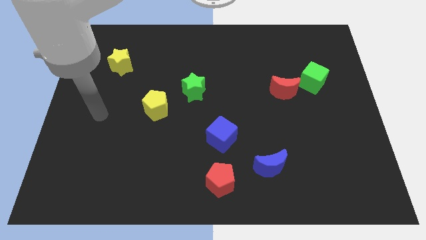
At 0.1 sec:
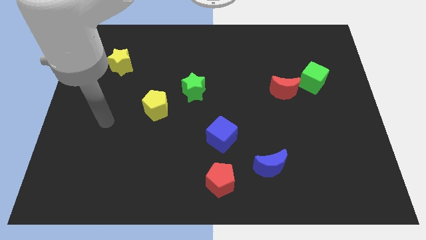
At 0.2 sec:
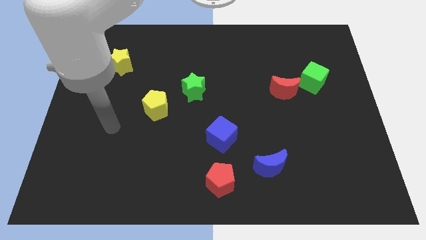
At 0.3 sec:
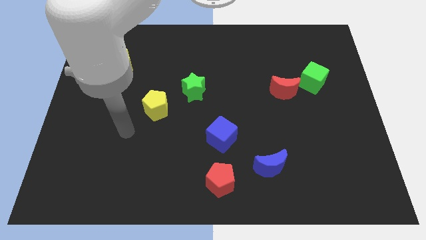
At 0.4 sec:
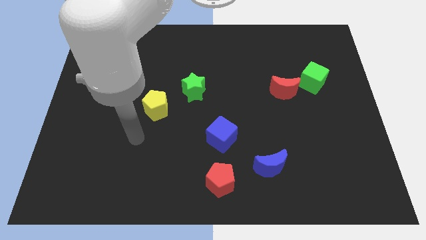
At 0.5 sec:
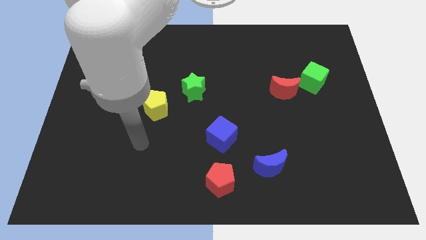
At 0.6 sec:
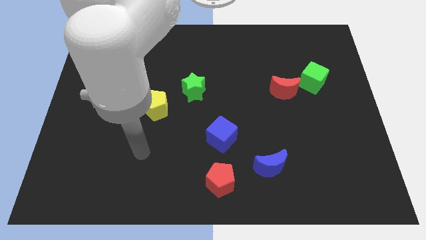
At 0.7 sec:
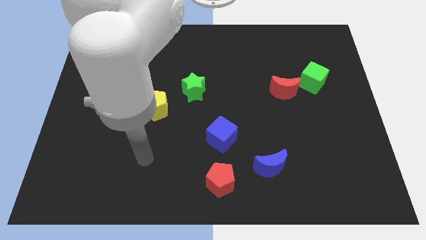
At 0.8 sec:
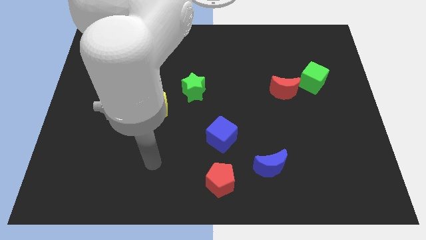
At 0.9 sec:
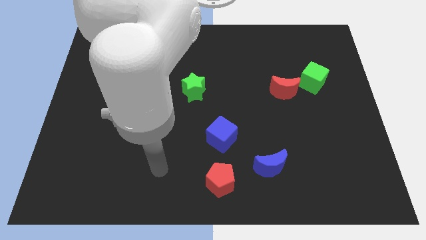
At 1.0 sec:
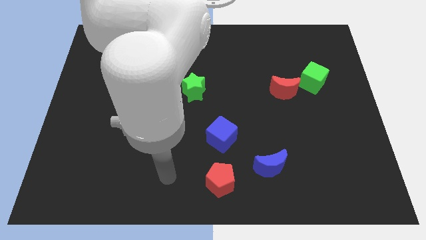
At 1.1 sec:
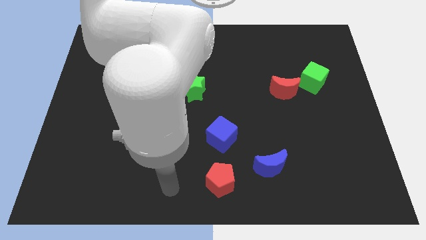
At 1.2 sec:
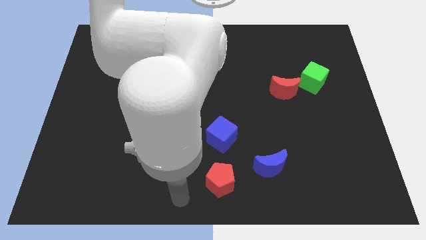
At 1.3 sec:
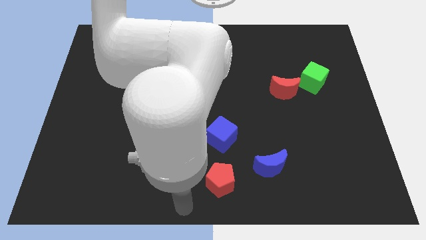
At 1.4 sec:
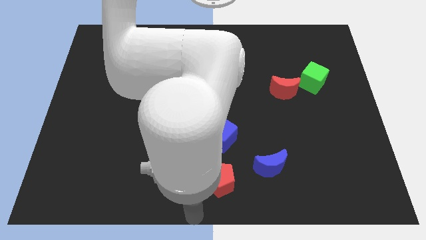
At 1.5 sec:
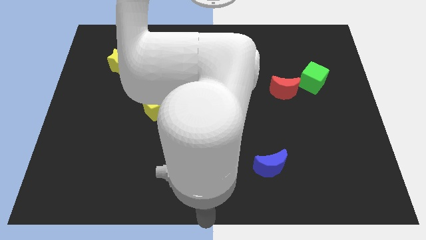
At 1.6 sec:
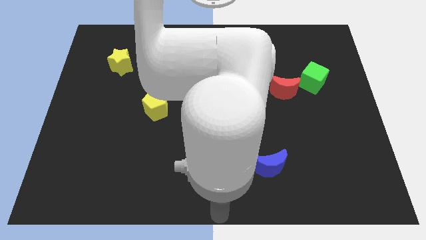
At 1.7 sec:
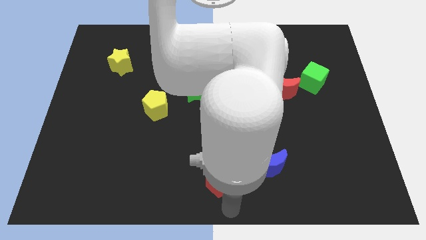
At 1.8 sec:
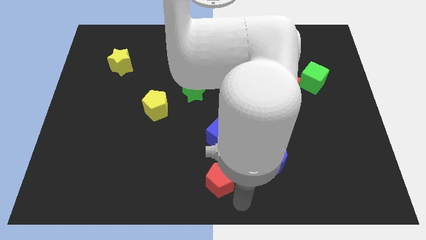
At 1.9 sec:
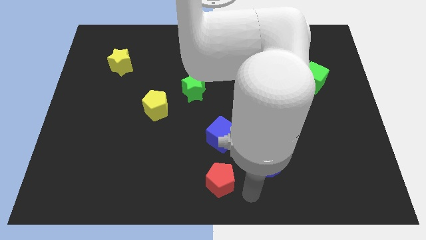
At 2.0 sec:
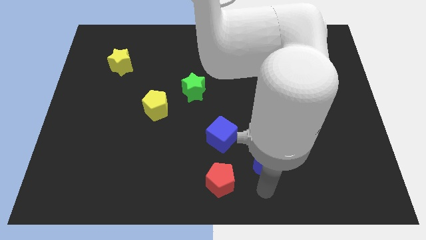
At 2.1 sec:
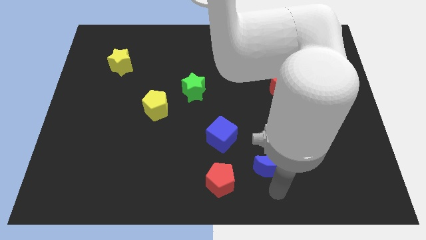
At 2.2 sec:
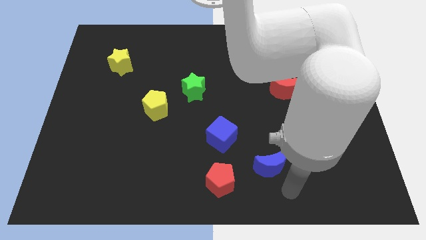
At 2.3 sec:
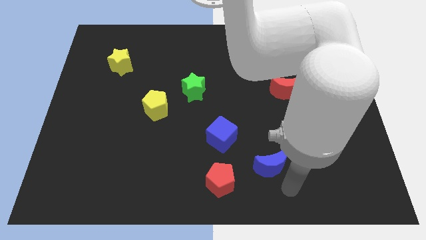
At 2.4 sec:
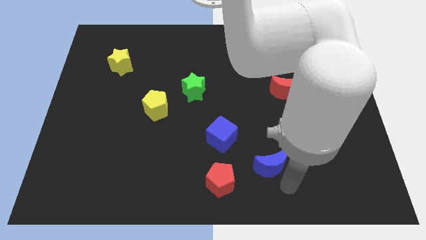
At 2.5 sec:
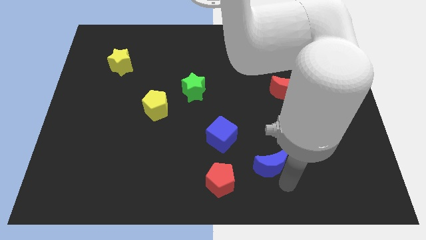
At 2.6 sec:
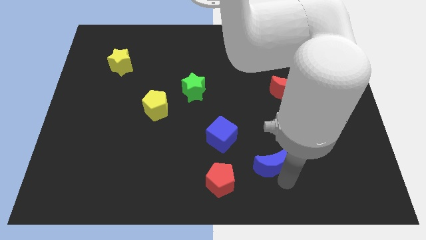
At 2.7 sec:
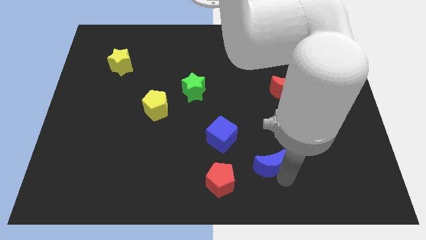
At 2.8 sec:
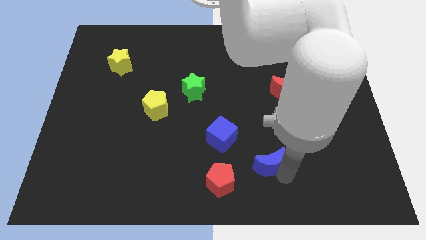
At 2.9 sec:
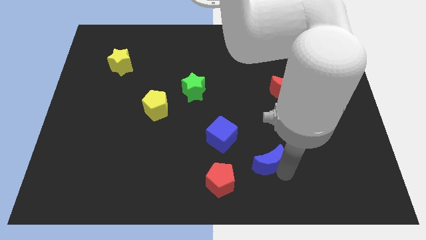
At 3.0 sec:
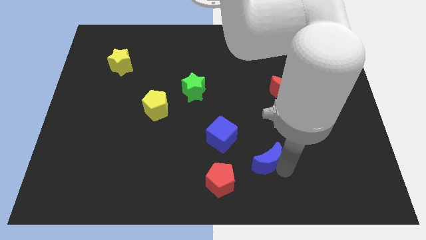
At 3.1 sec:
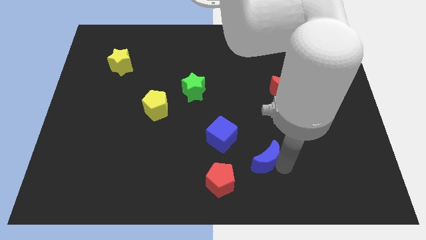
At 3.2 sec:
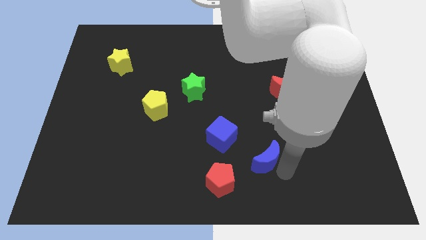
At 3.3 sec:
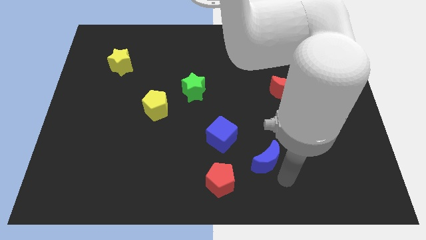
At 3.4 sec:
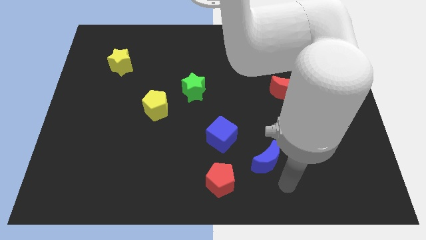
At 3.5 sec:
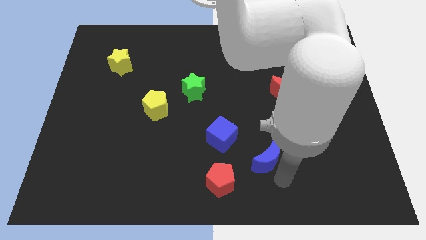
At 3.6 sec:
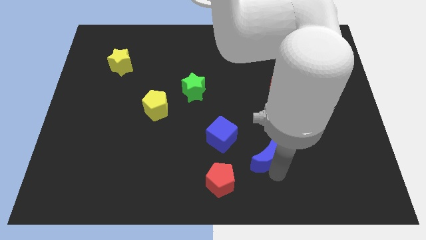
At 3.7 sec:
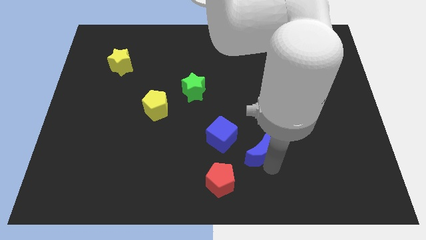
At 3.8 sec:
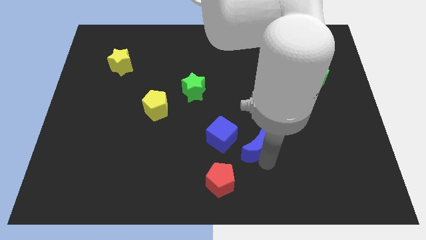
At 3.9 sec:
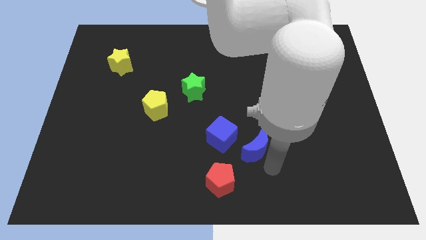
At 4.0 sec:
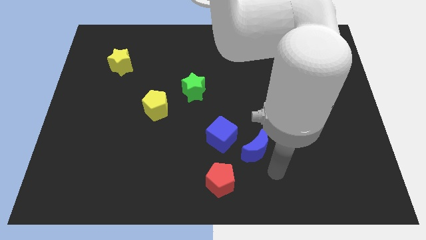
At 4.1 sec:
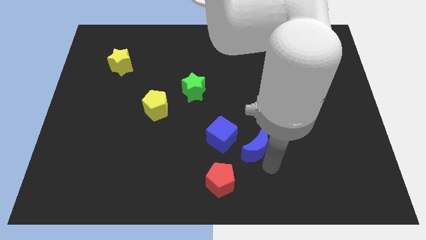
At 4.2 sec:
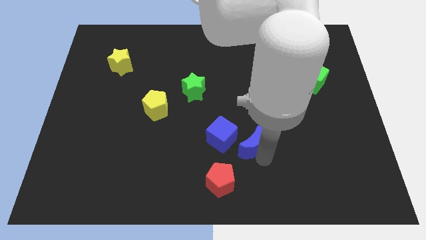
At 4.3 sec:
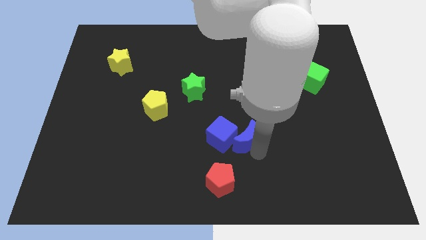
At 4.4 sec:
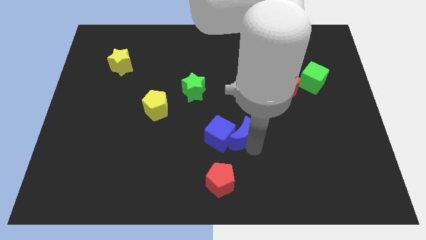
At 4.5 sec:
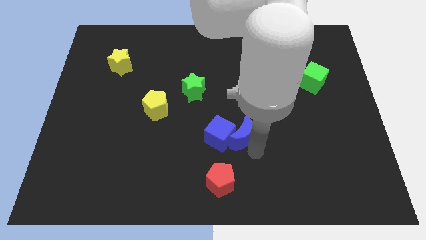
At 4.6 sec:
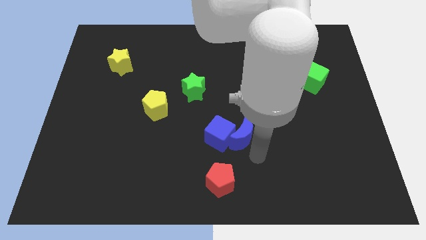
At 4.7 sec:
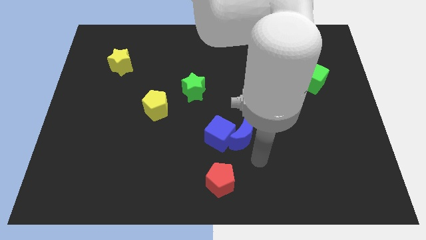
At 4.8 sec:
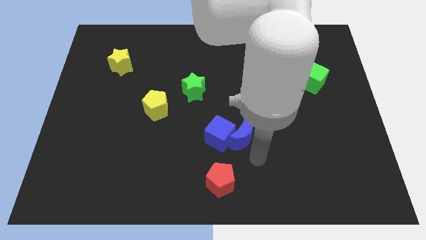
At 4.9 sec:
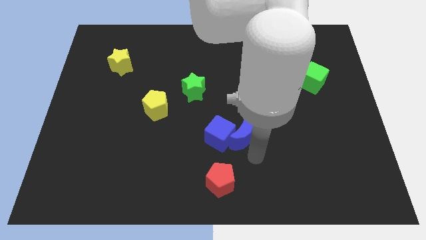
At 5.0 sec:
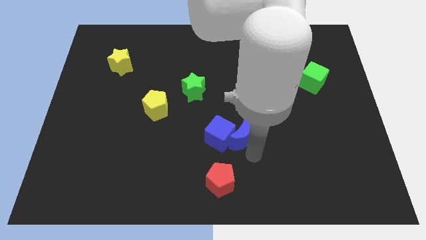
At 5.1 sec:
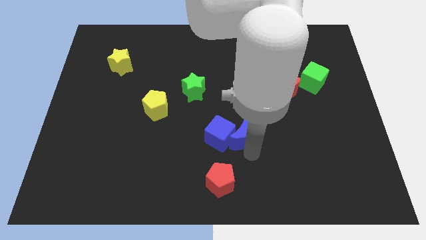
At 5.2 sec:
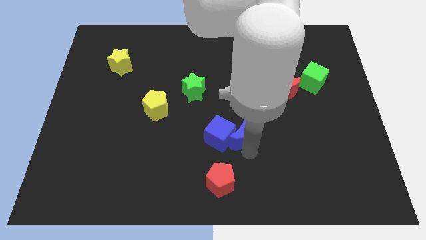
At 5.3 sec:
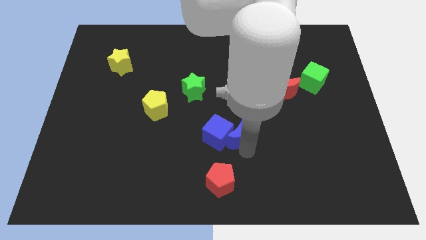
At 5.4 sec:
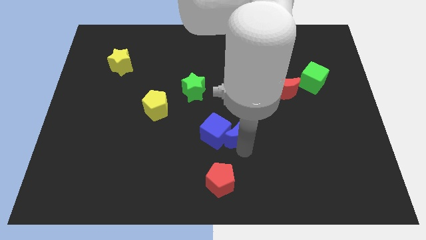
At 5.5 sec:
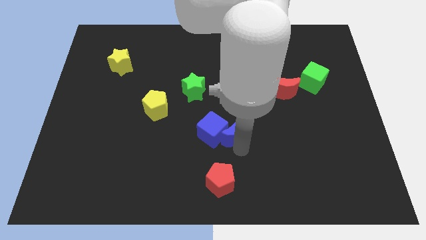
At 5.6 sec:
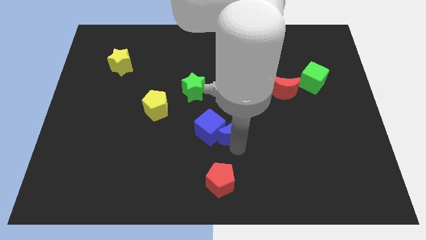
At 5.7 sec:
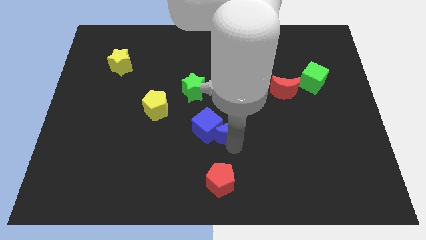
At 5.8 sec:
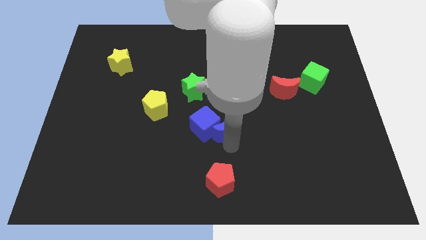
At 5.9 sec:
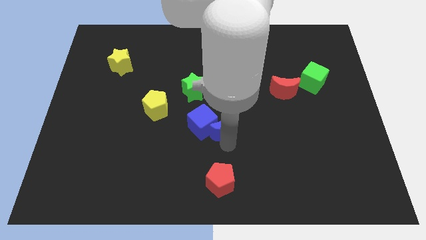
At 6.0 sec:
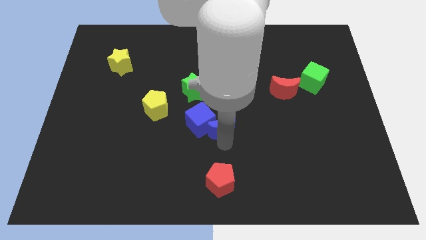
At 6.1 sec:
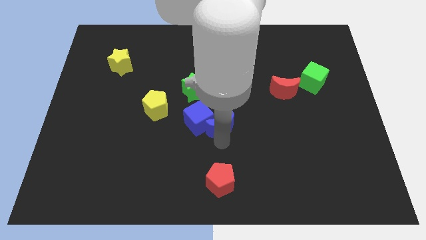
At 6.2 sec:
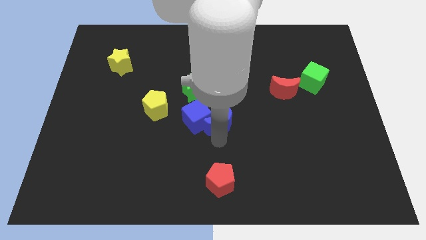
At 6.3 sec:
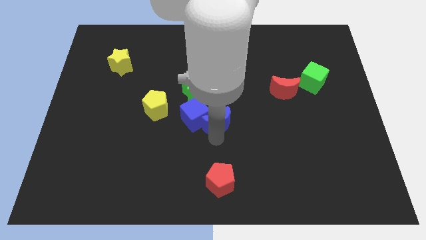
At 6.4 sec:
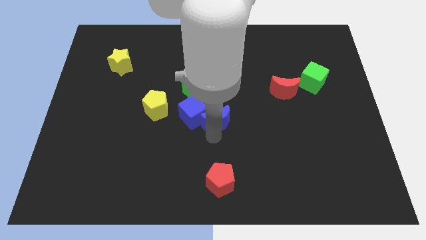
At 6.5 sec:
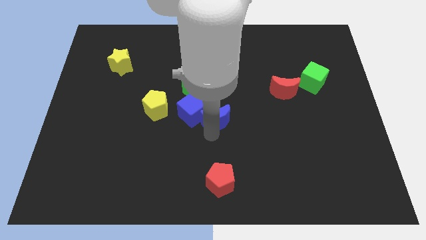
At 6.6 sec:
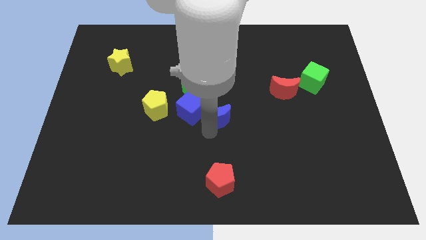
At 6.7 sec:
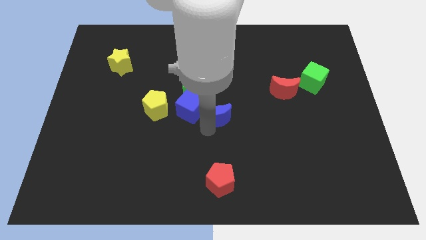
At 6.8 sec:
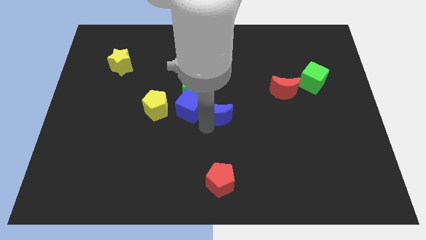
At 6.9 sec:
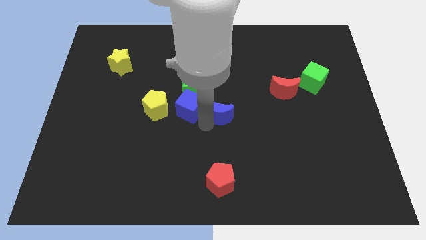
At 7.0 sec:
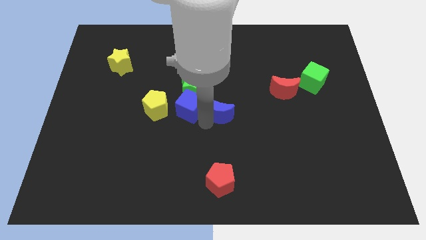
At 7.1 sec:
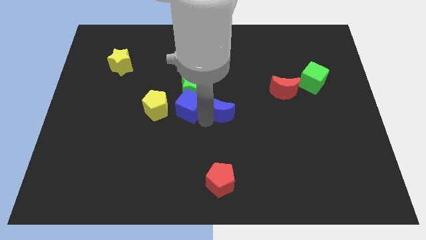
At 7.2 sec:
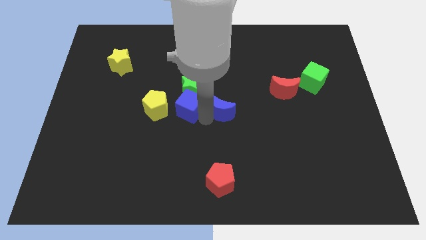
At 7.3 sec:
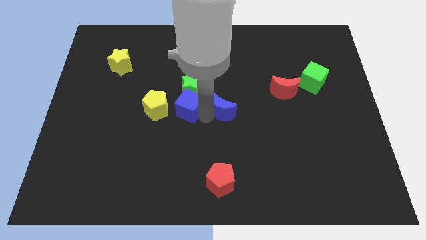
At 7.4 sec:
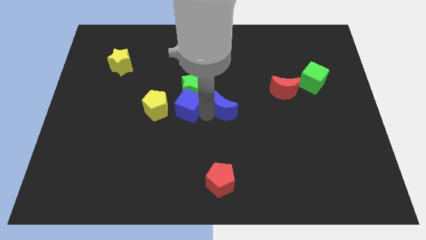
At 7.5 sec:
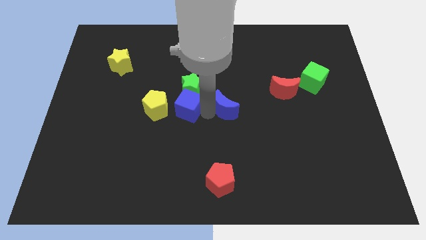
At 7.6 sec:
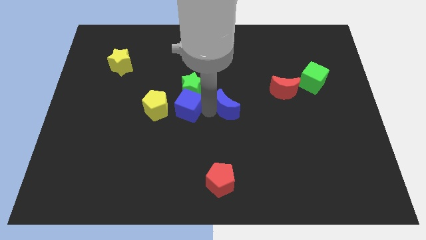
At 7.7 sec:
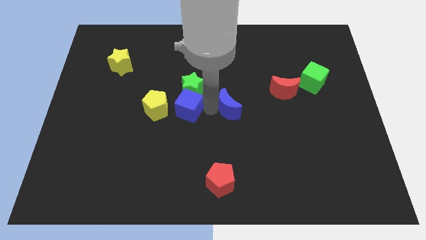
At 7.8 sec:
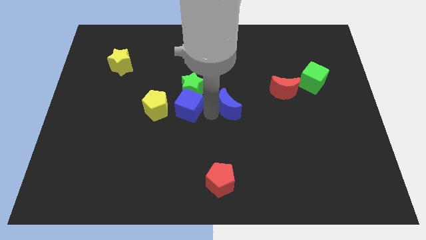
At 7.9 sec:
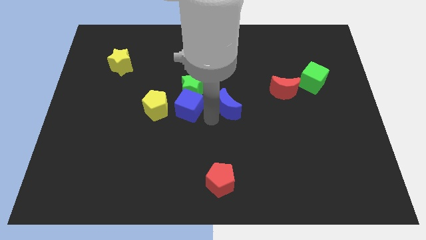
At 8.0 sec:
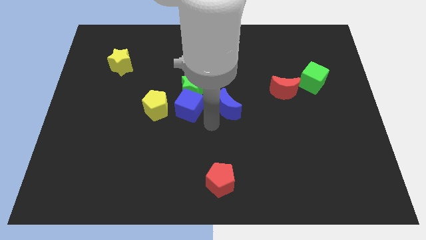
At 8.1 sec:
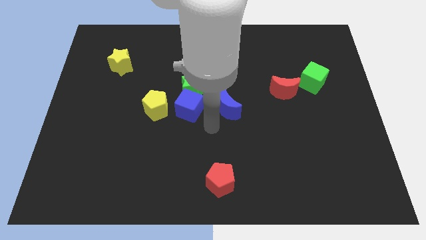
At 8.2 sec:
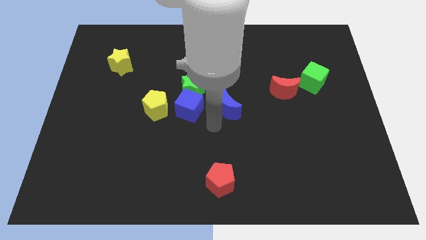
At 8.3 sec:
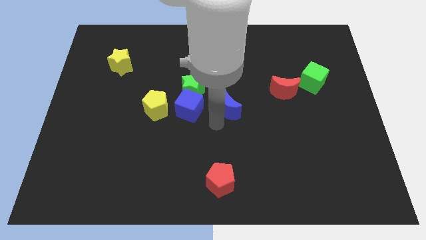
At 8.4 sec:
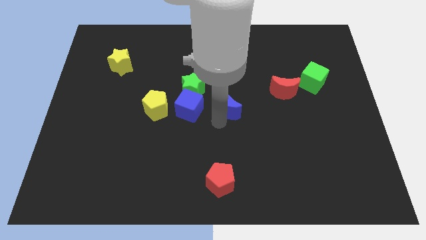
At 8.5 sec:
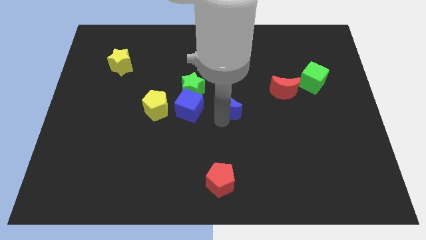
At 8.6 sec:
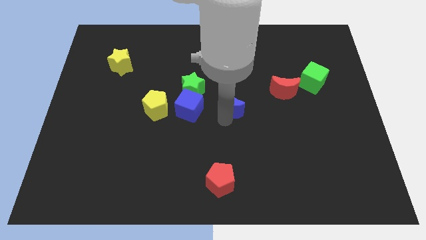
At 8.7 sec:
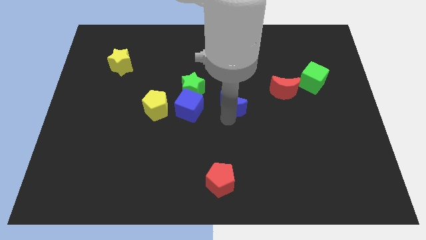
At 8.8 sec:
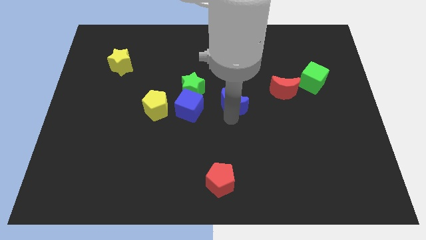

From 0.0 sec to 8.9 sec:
move the blue moon to the left side of the red moon
